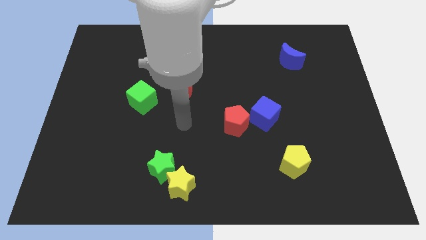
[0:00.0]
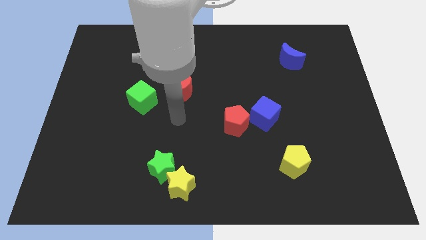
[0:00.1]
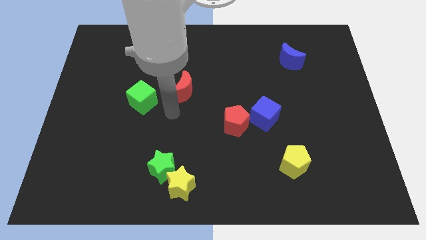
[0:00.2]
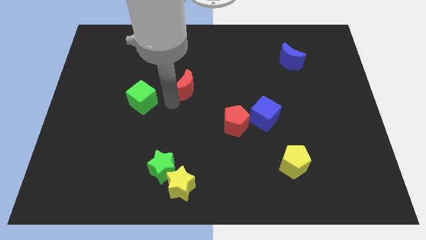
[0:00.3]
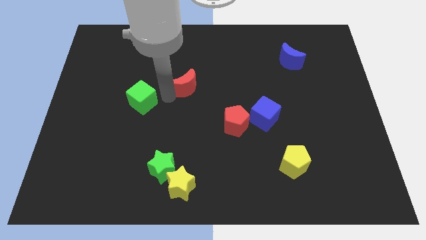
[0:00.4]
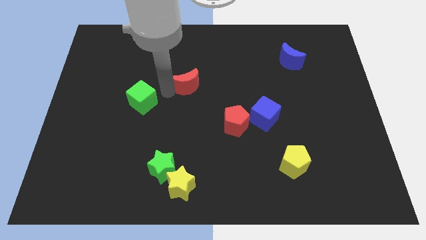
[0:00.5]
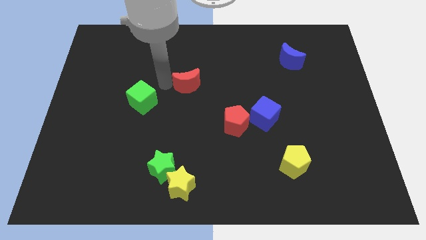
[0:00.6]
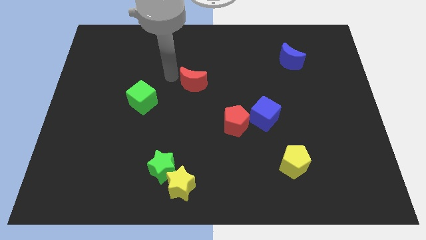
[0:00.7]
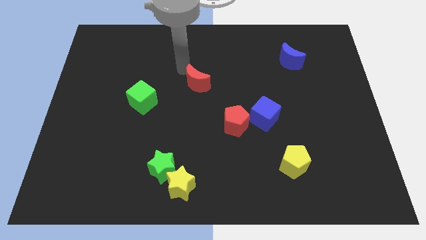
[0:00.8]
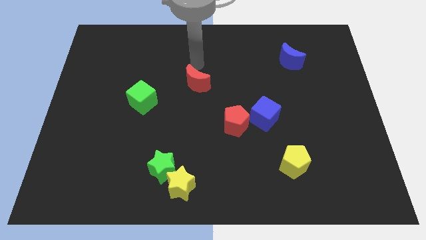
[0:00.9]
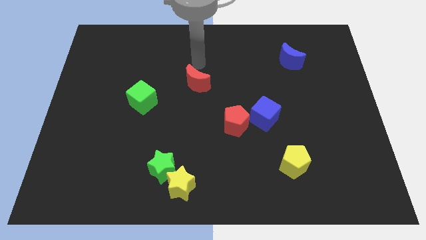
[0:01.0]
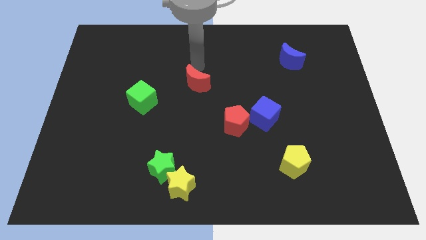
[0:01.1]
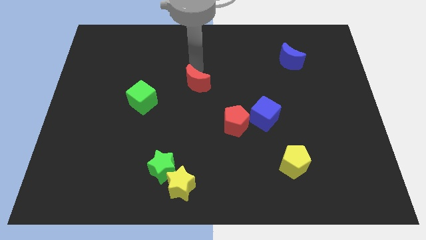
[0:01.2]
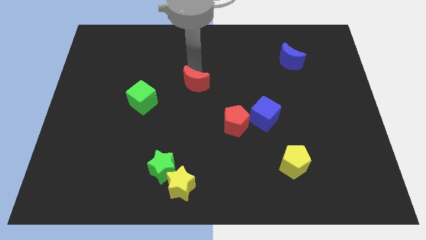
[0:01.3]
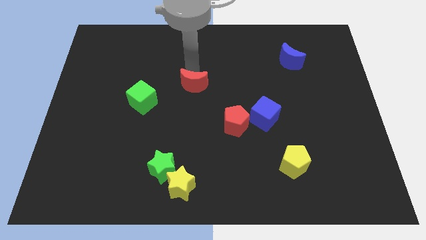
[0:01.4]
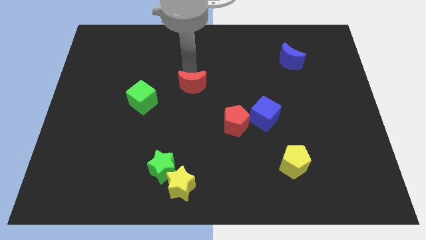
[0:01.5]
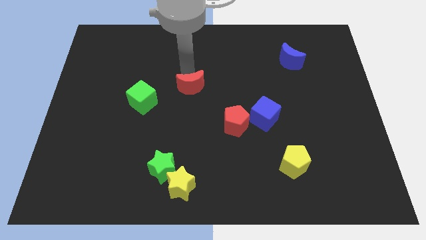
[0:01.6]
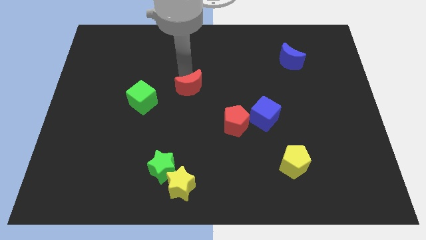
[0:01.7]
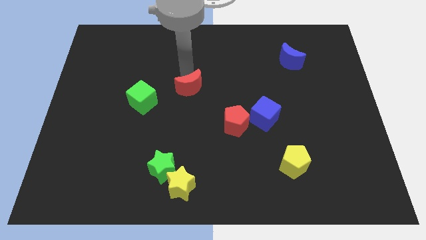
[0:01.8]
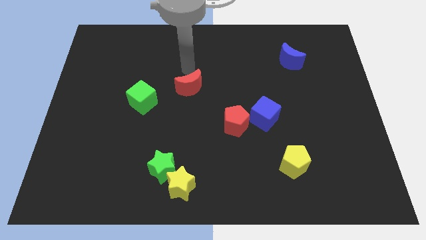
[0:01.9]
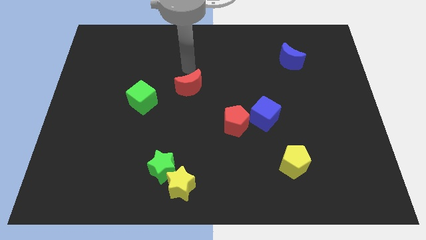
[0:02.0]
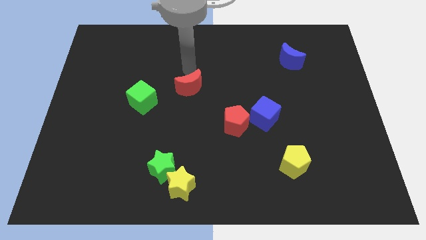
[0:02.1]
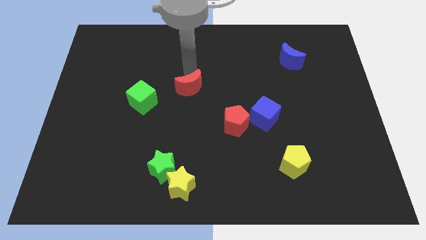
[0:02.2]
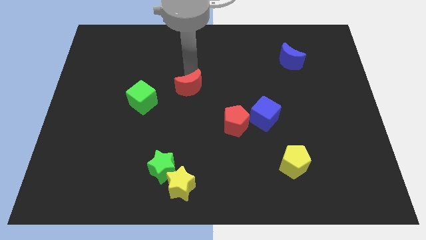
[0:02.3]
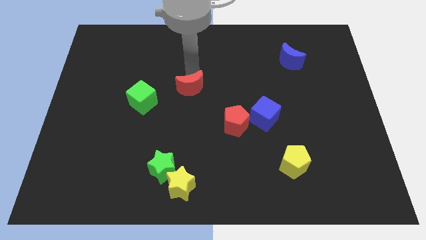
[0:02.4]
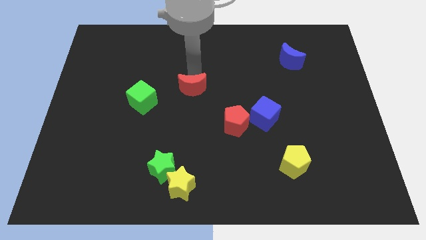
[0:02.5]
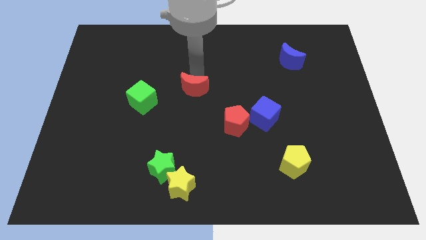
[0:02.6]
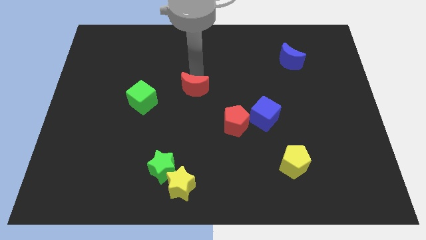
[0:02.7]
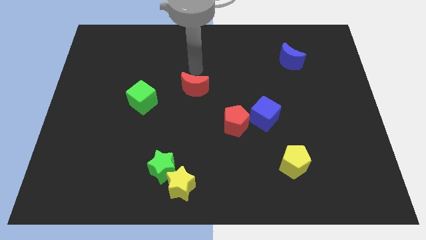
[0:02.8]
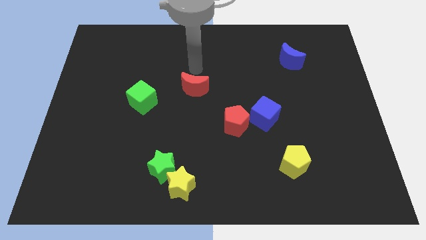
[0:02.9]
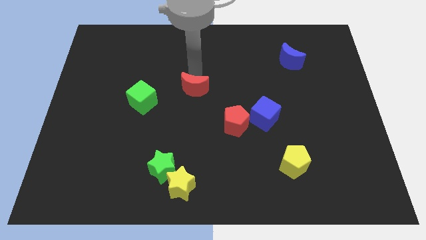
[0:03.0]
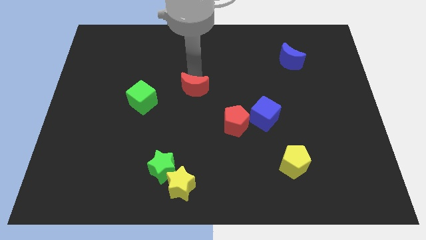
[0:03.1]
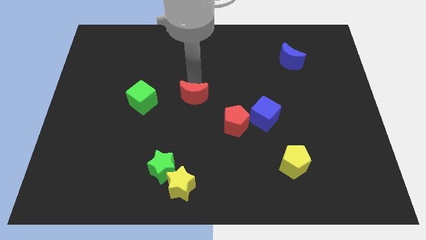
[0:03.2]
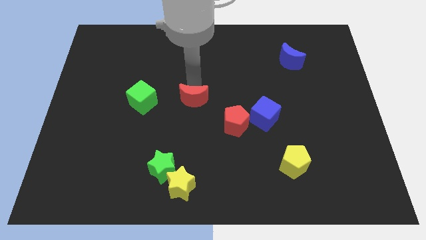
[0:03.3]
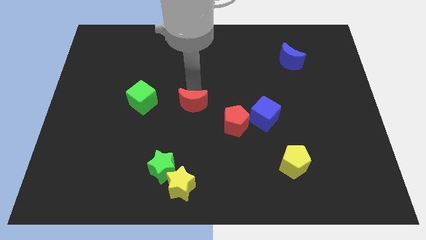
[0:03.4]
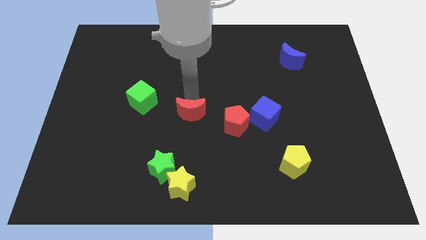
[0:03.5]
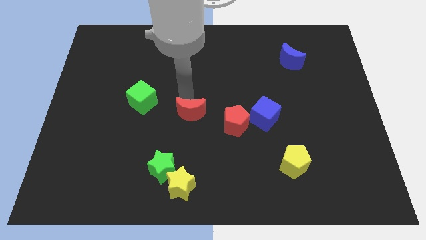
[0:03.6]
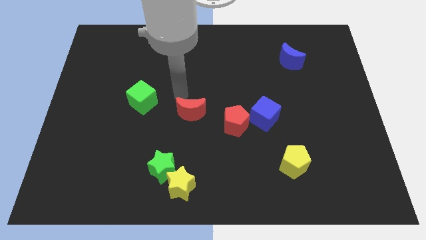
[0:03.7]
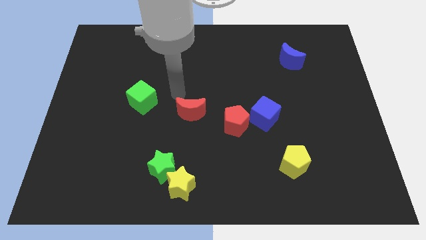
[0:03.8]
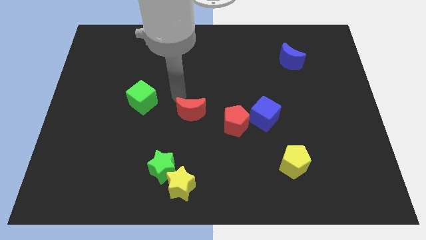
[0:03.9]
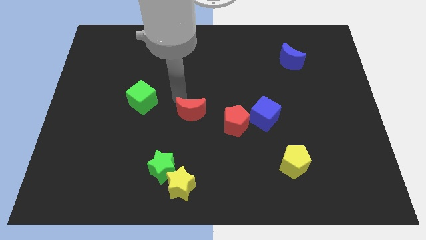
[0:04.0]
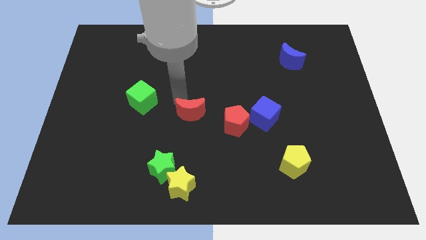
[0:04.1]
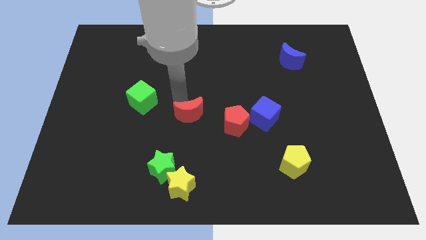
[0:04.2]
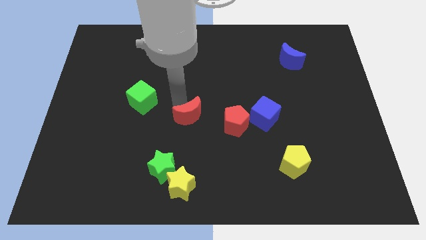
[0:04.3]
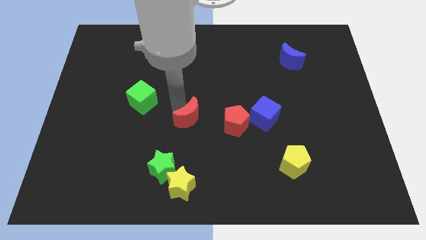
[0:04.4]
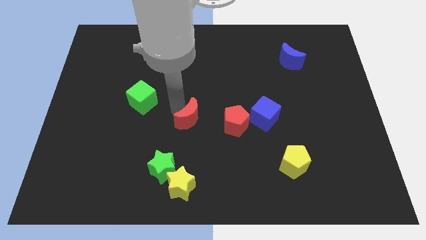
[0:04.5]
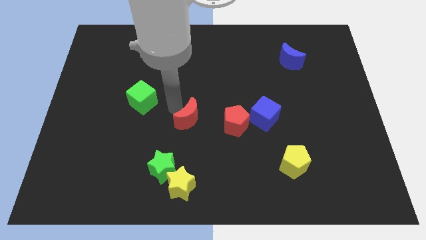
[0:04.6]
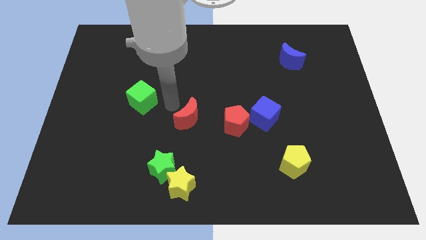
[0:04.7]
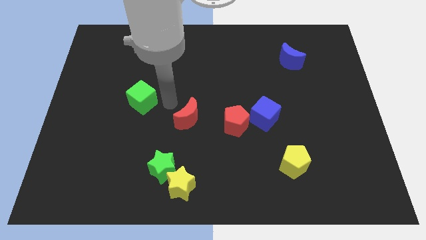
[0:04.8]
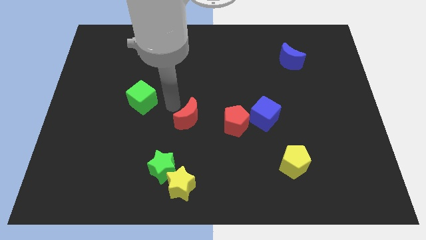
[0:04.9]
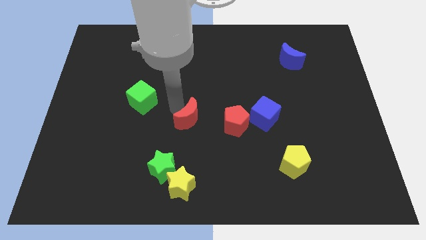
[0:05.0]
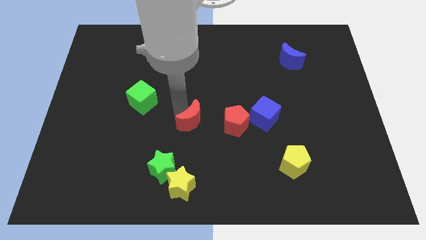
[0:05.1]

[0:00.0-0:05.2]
move the red moon a bit down and then to the right

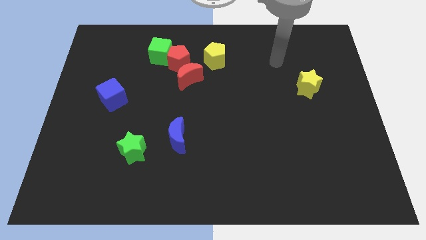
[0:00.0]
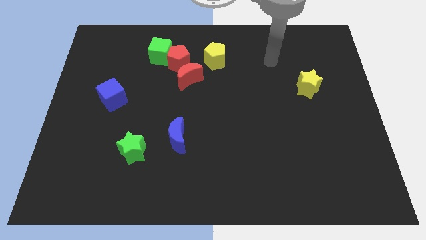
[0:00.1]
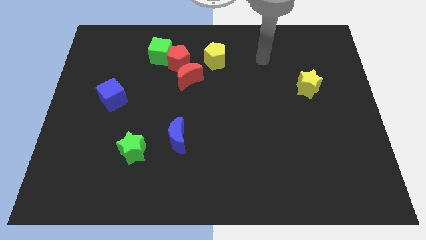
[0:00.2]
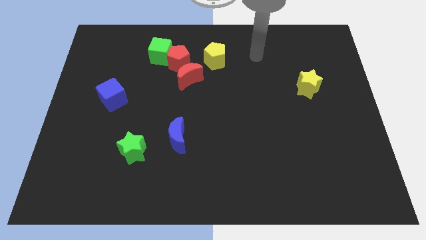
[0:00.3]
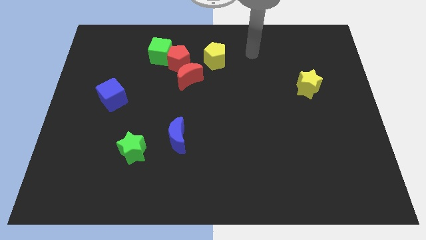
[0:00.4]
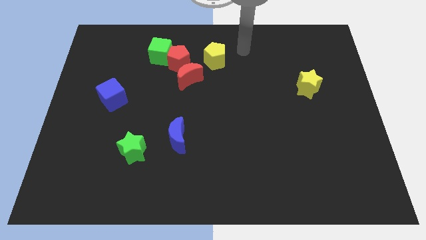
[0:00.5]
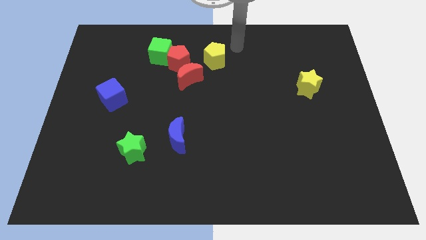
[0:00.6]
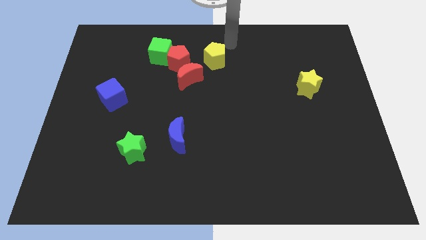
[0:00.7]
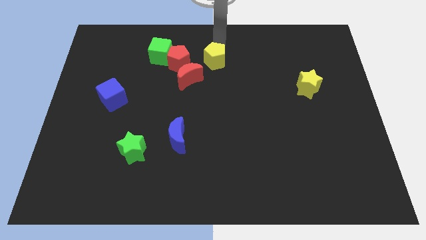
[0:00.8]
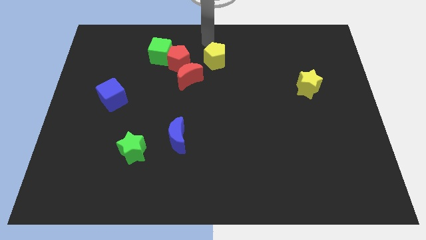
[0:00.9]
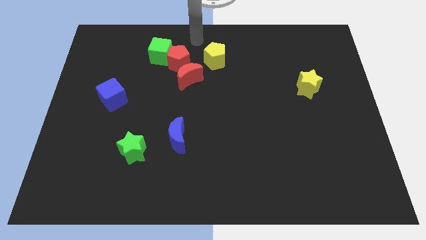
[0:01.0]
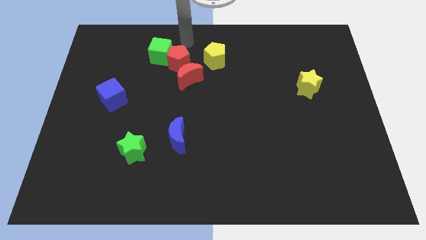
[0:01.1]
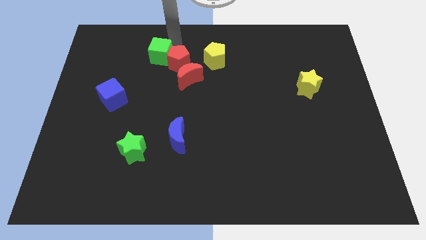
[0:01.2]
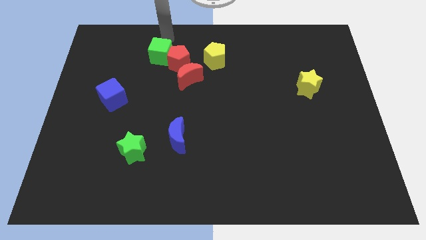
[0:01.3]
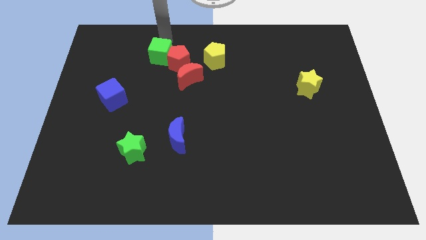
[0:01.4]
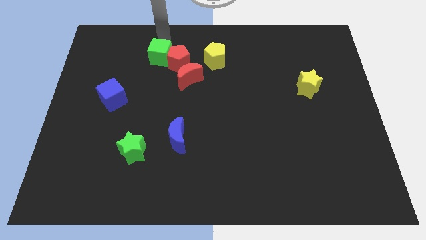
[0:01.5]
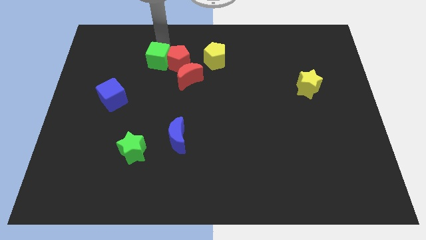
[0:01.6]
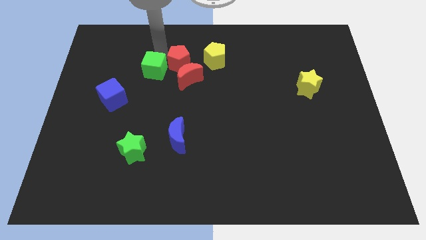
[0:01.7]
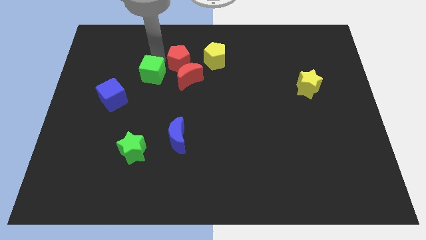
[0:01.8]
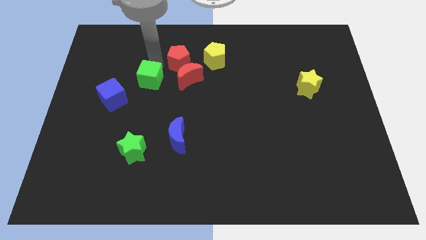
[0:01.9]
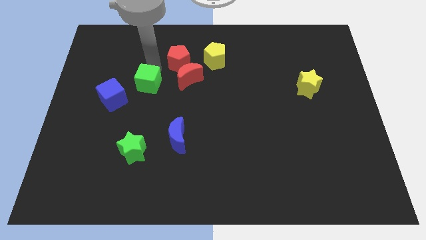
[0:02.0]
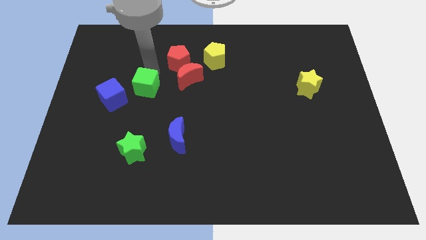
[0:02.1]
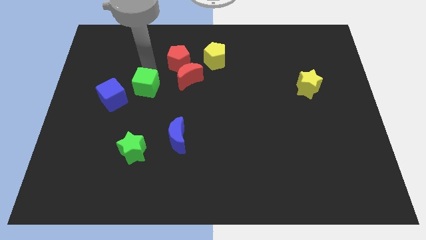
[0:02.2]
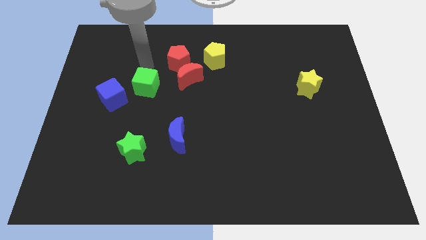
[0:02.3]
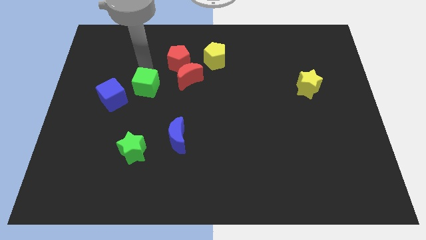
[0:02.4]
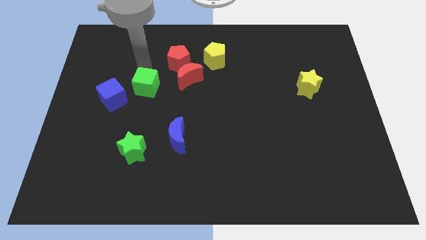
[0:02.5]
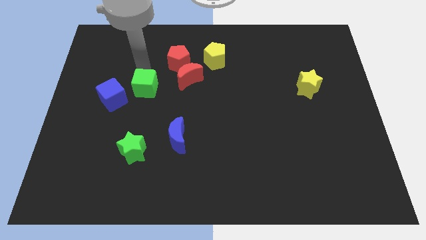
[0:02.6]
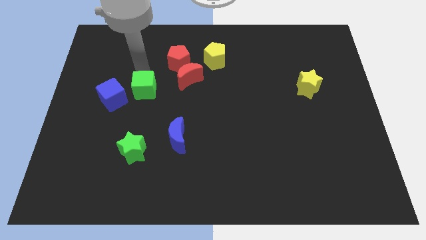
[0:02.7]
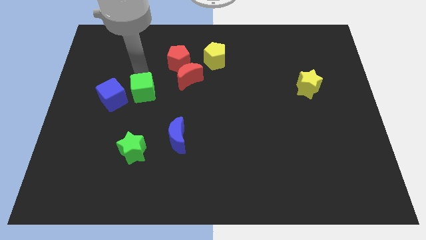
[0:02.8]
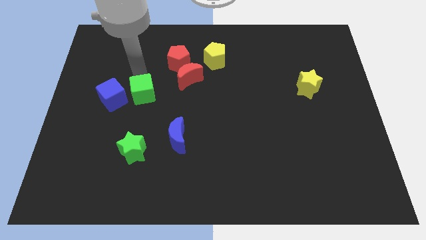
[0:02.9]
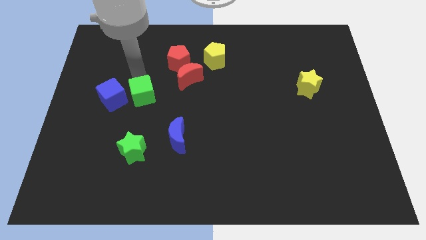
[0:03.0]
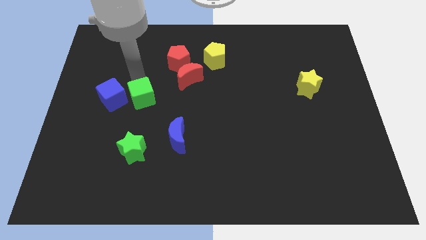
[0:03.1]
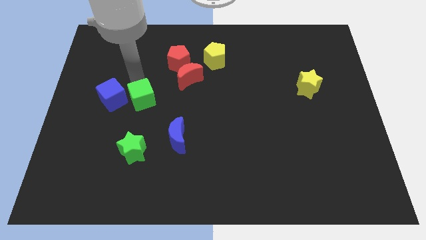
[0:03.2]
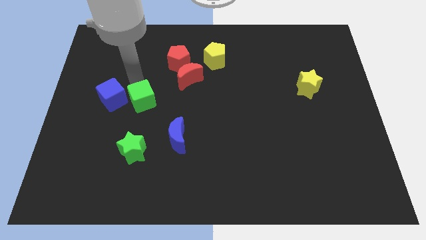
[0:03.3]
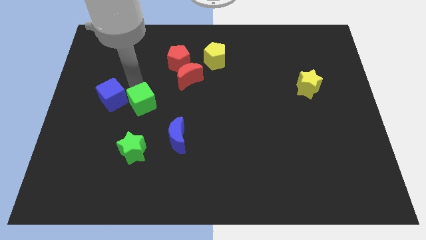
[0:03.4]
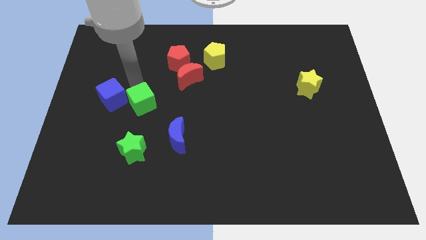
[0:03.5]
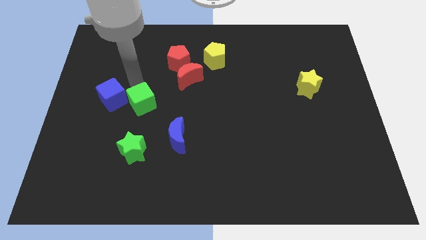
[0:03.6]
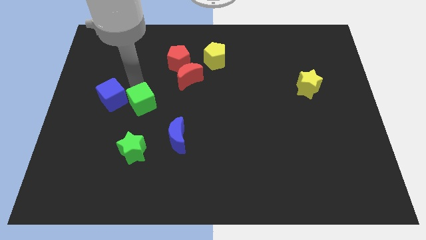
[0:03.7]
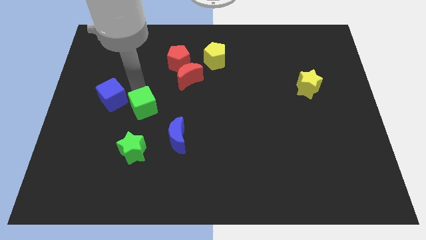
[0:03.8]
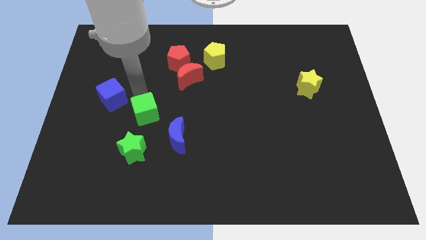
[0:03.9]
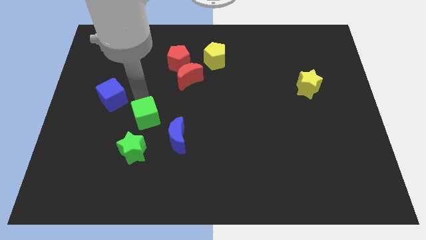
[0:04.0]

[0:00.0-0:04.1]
push the green cube down
